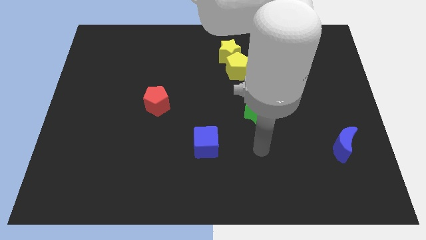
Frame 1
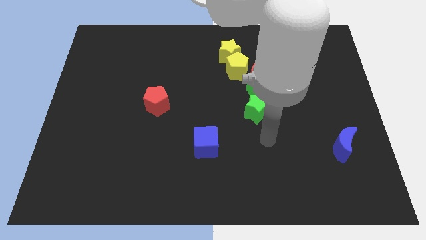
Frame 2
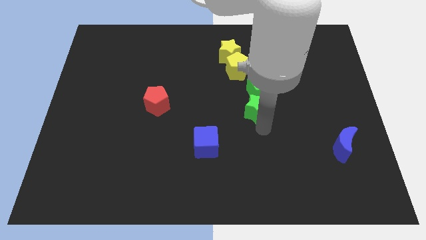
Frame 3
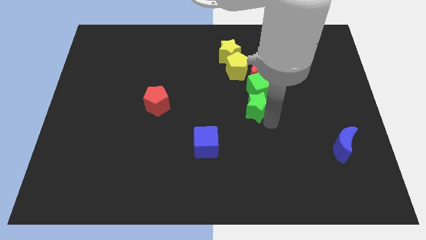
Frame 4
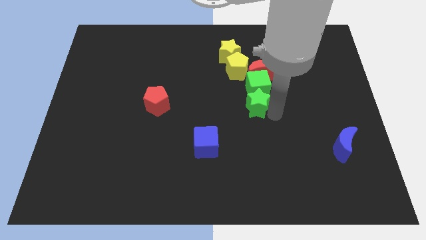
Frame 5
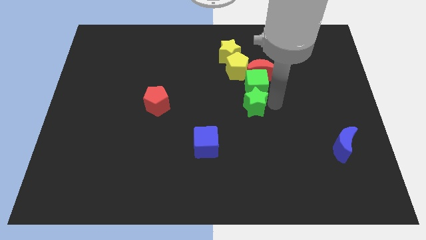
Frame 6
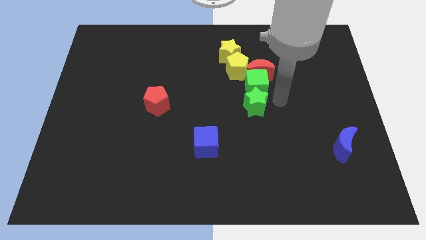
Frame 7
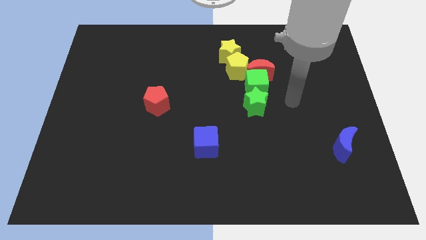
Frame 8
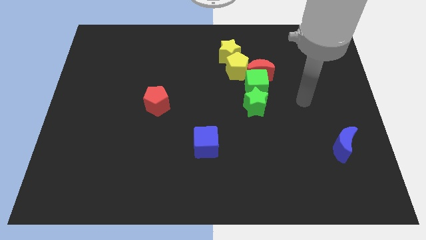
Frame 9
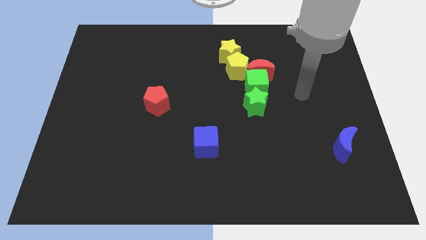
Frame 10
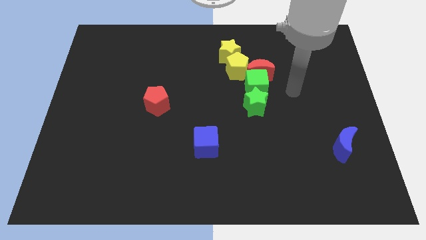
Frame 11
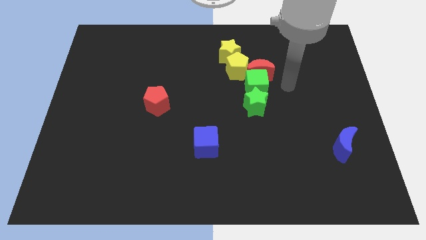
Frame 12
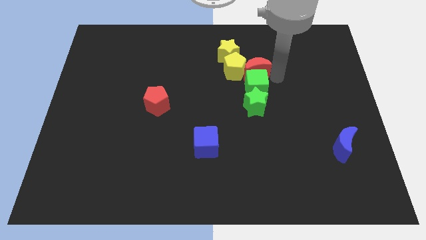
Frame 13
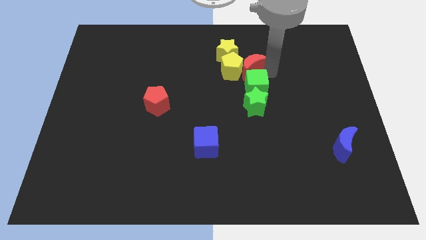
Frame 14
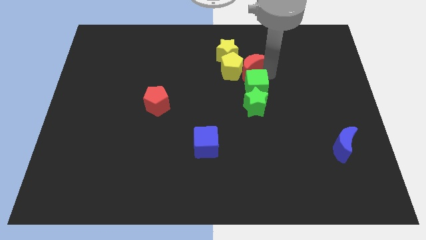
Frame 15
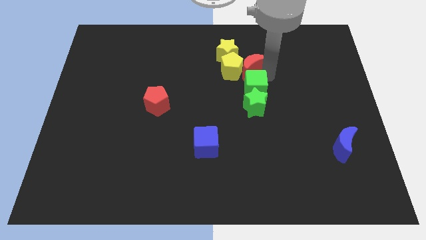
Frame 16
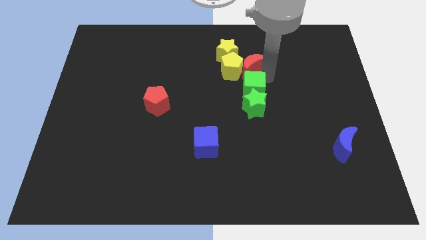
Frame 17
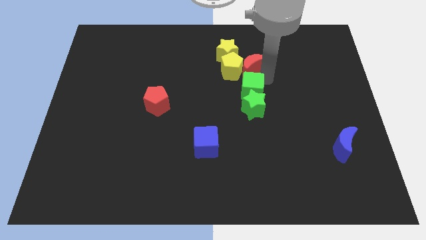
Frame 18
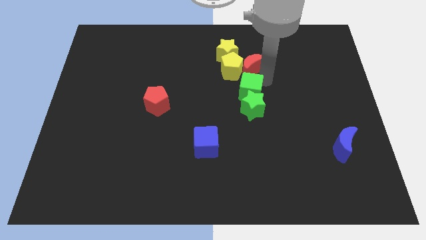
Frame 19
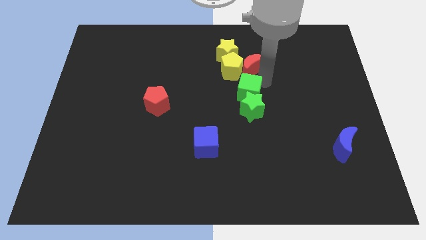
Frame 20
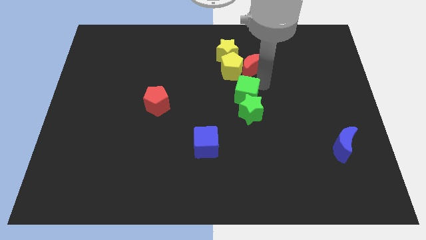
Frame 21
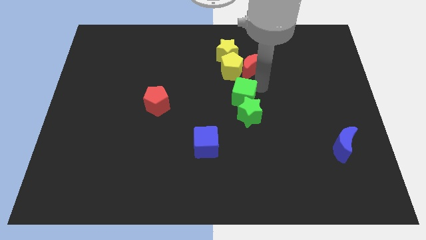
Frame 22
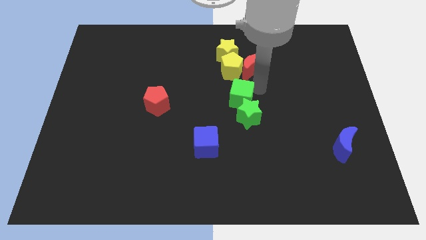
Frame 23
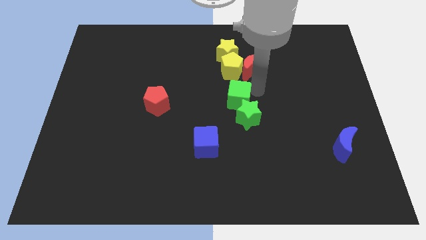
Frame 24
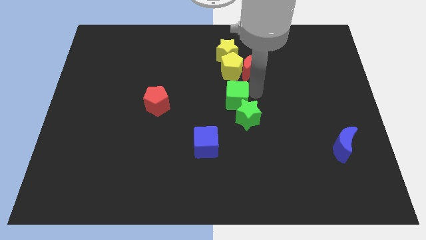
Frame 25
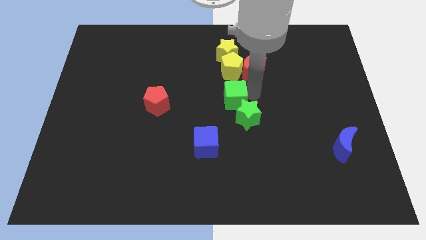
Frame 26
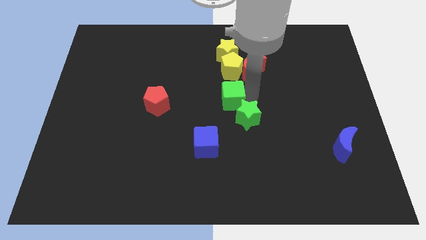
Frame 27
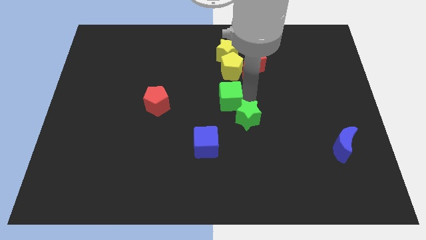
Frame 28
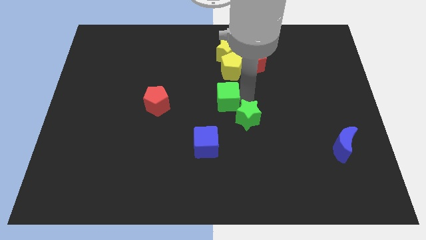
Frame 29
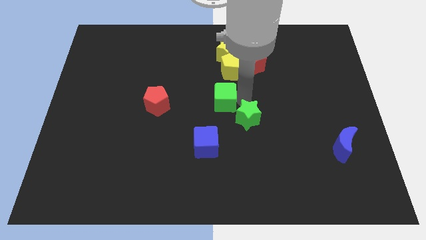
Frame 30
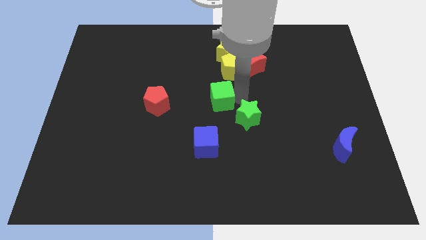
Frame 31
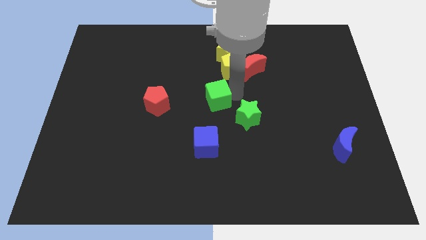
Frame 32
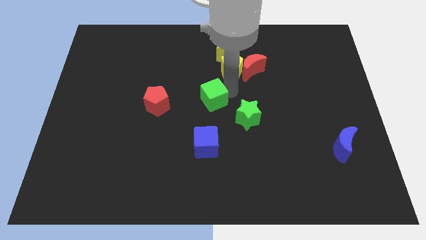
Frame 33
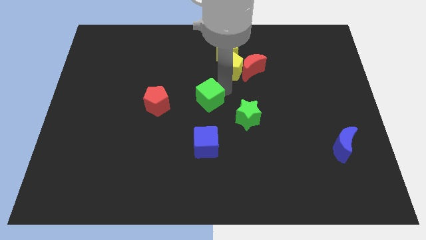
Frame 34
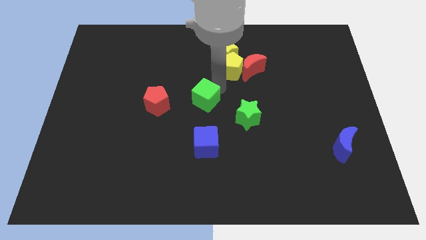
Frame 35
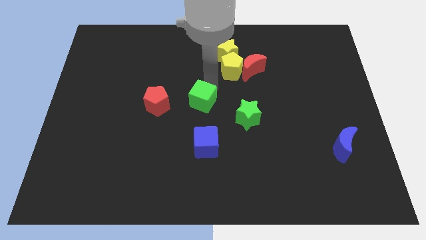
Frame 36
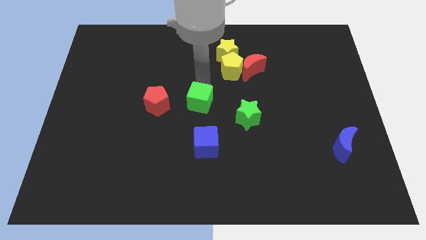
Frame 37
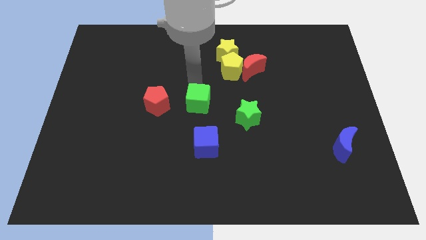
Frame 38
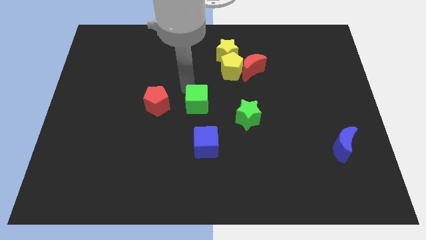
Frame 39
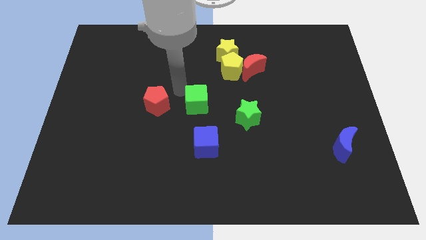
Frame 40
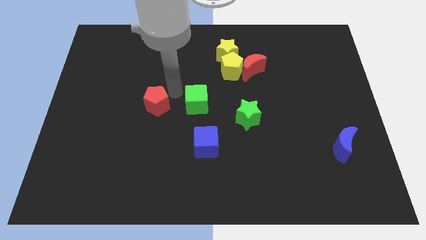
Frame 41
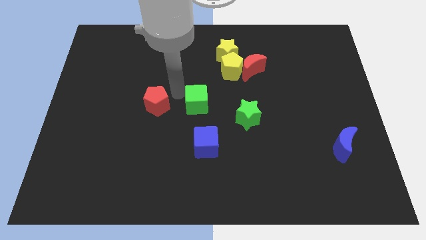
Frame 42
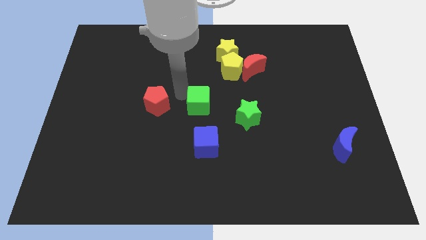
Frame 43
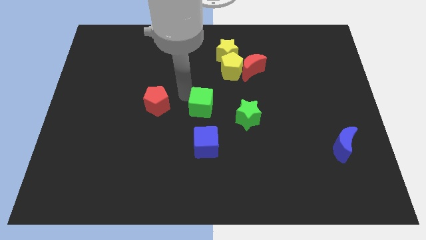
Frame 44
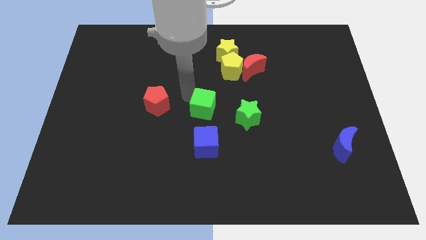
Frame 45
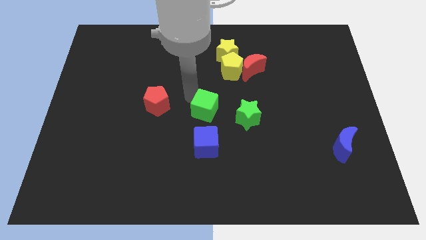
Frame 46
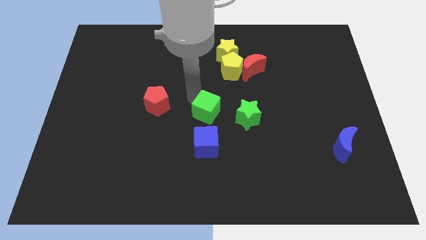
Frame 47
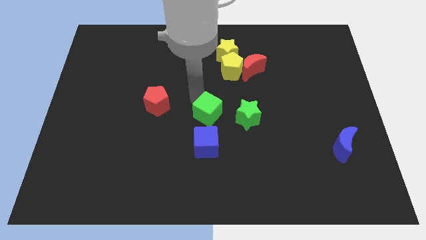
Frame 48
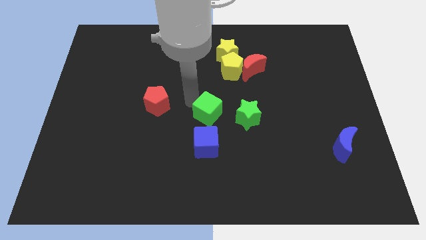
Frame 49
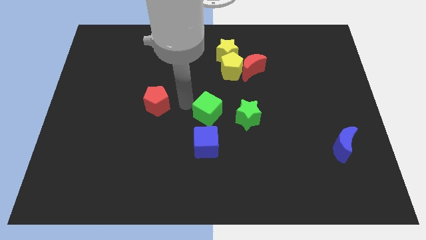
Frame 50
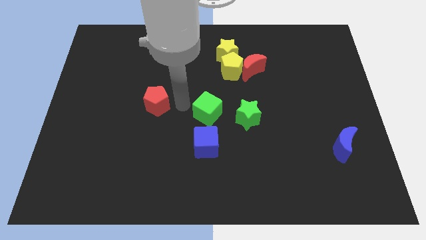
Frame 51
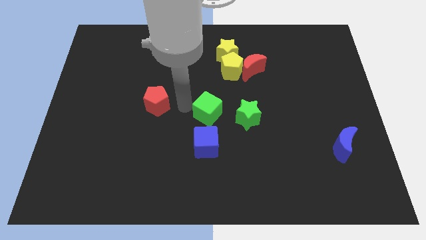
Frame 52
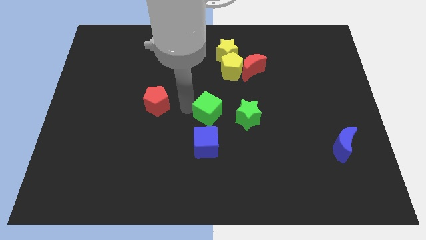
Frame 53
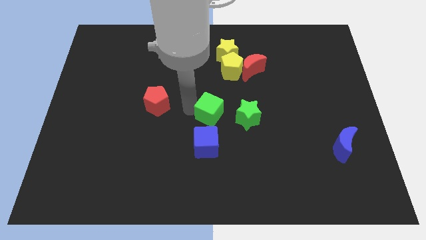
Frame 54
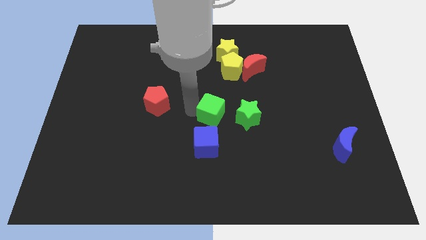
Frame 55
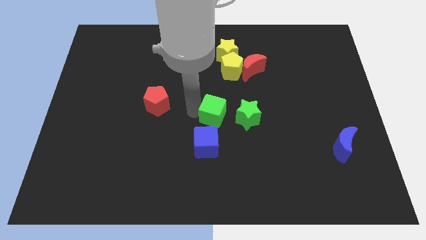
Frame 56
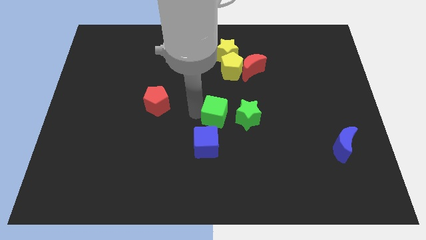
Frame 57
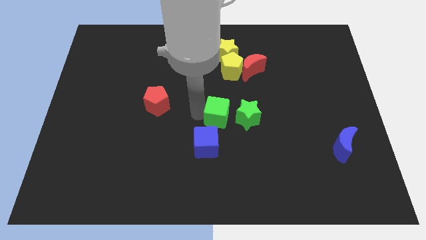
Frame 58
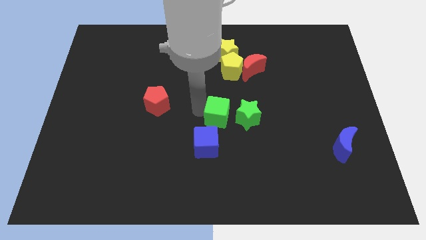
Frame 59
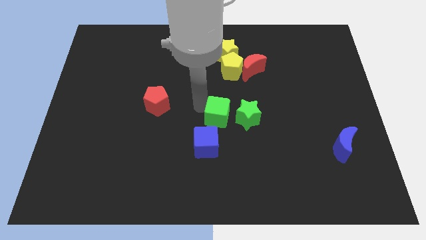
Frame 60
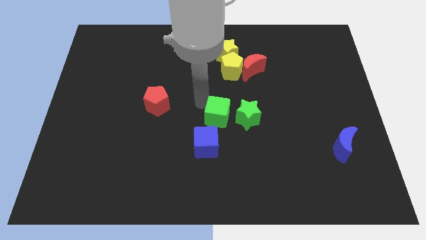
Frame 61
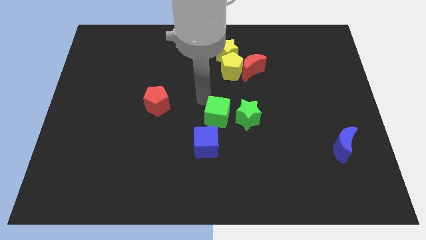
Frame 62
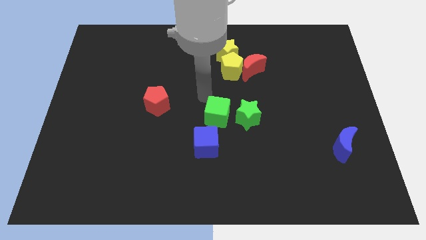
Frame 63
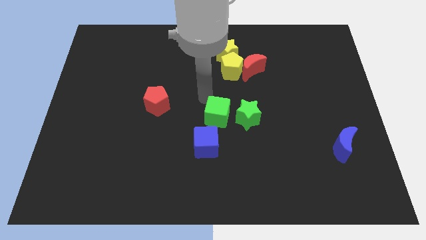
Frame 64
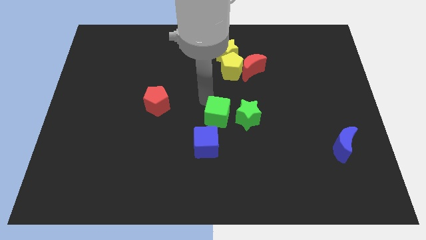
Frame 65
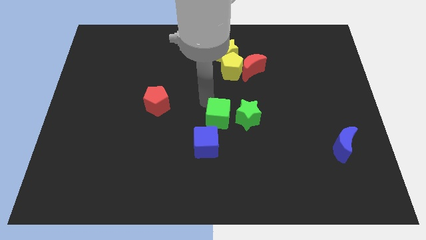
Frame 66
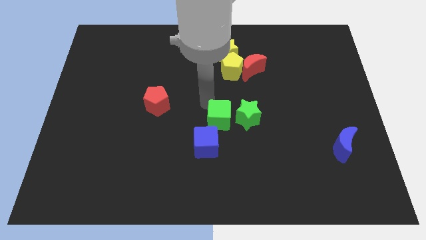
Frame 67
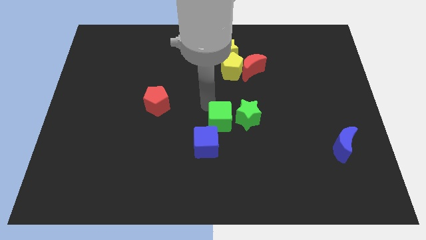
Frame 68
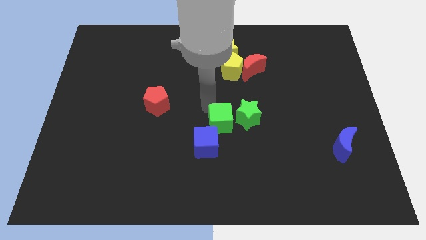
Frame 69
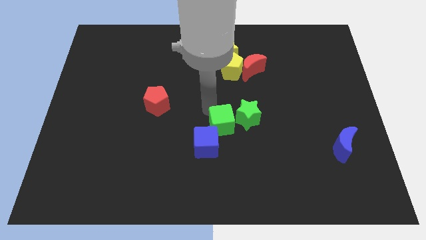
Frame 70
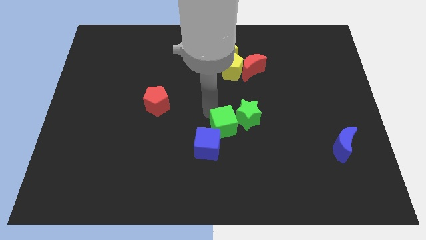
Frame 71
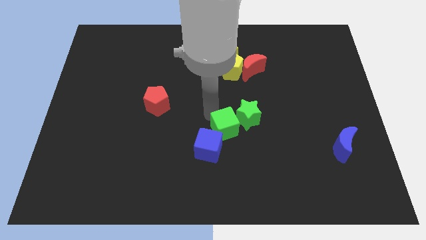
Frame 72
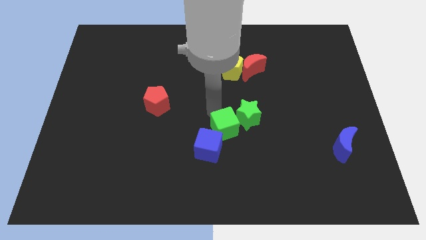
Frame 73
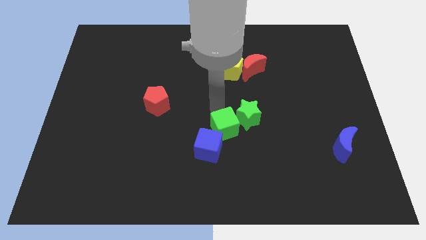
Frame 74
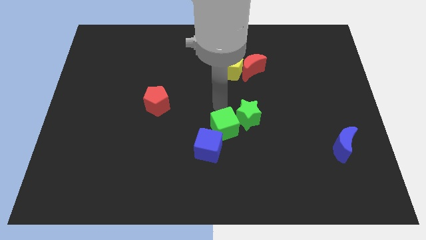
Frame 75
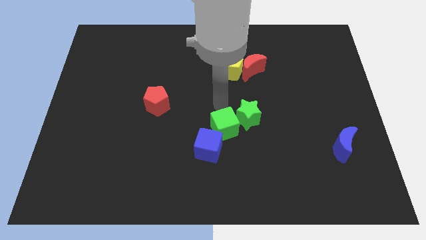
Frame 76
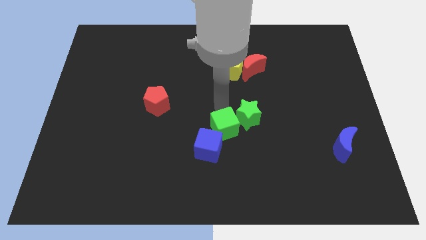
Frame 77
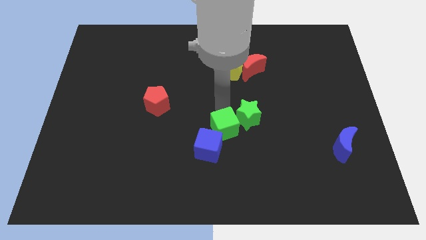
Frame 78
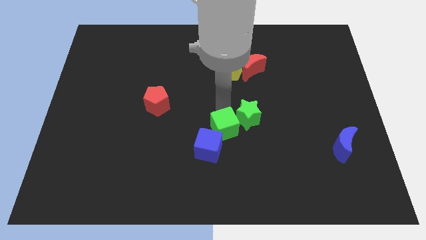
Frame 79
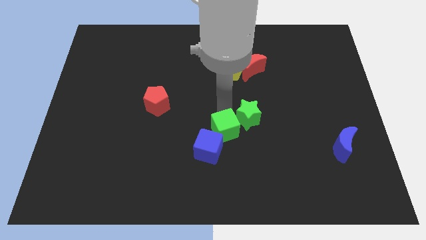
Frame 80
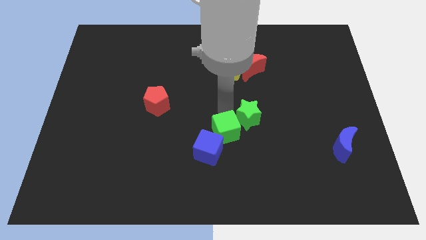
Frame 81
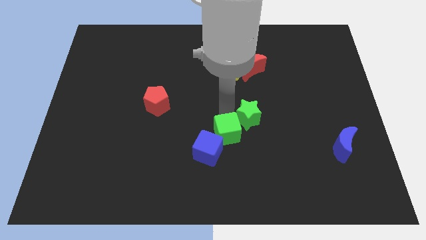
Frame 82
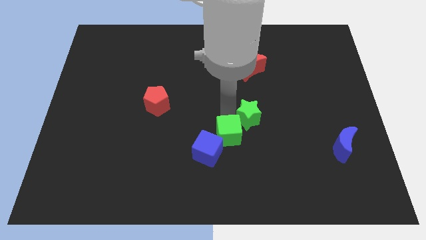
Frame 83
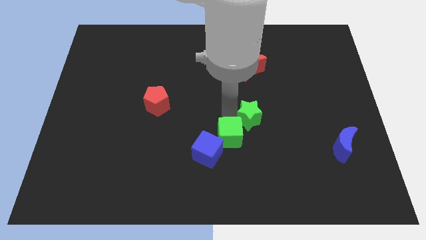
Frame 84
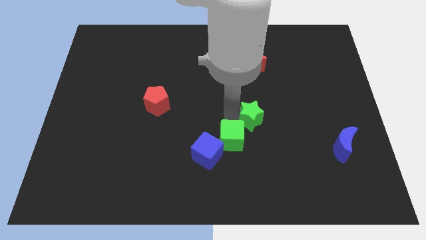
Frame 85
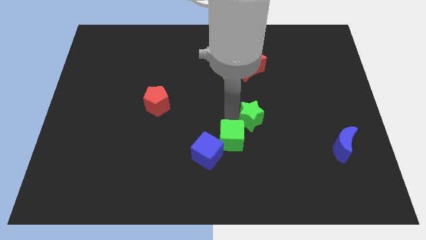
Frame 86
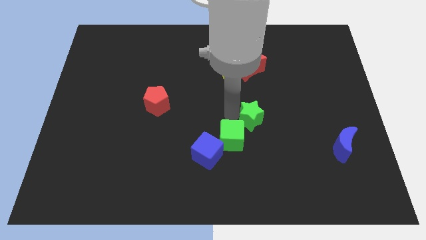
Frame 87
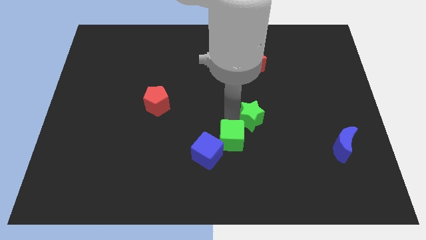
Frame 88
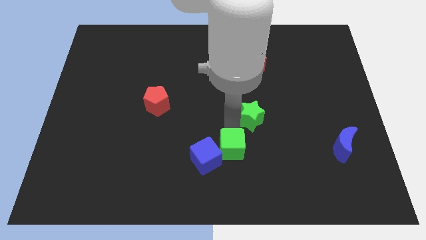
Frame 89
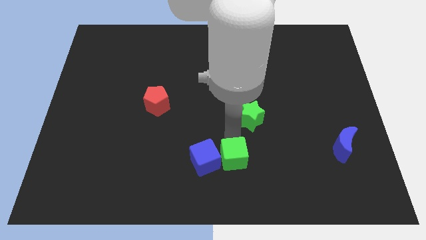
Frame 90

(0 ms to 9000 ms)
push the green cube diagonally down and to the right of the blue cube
